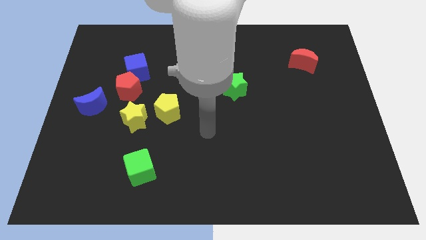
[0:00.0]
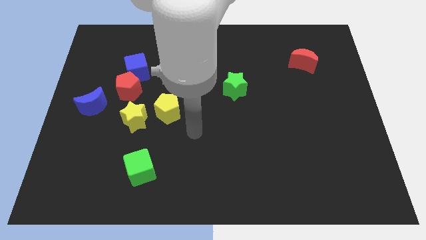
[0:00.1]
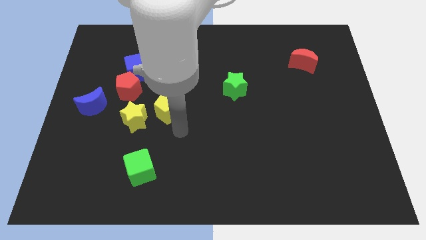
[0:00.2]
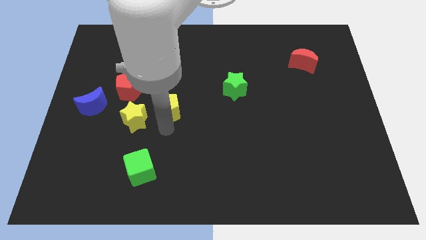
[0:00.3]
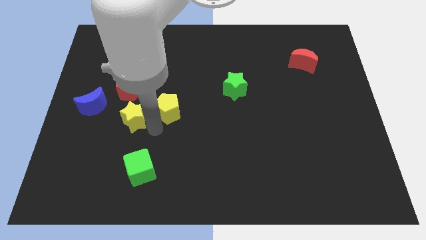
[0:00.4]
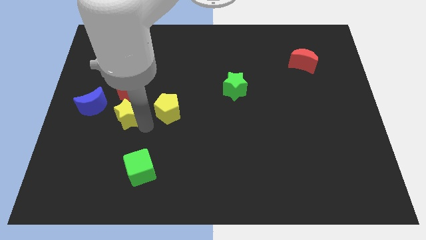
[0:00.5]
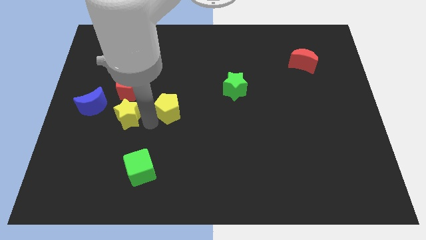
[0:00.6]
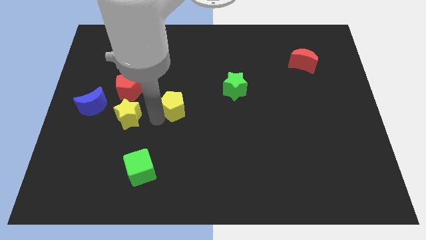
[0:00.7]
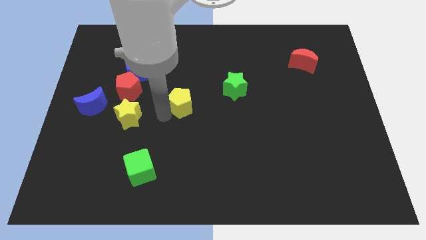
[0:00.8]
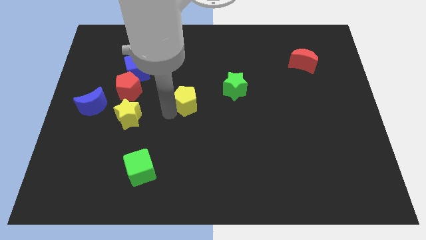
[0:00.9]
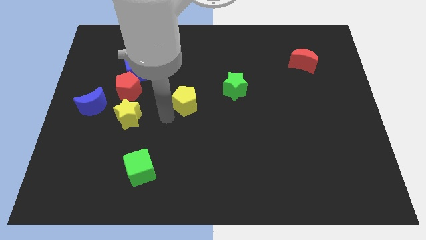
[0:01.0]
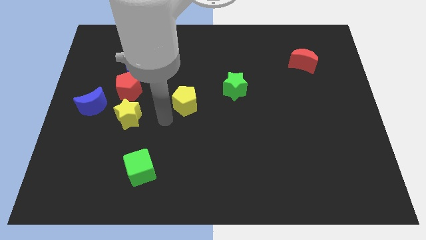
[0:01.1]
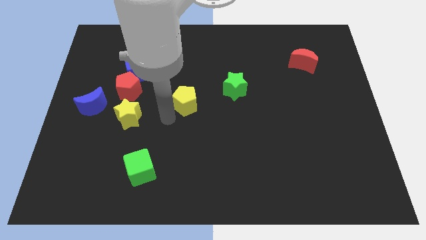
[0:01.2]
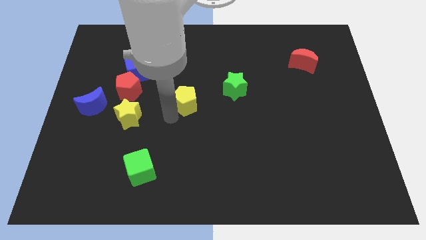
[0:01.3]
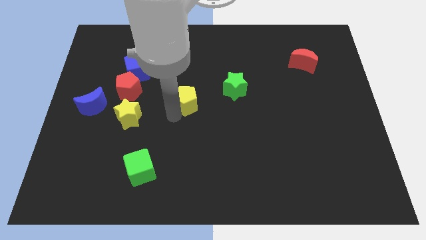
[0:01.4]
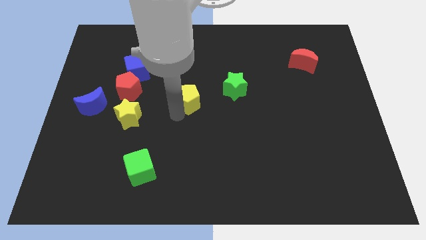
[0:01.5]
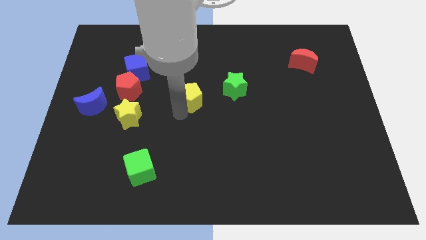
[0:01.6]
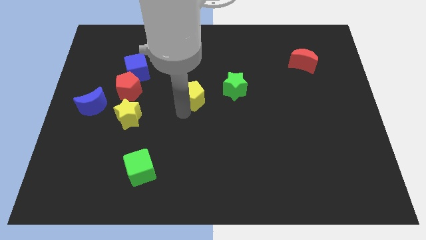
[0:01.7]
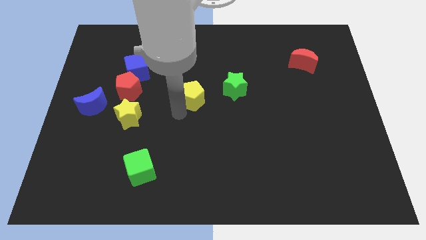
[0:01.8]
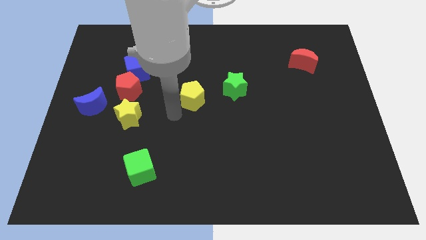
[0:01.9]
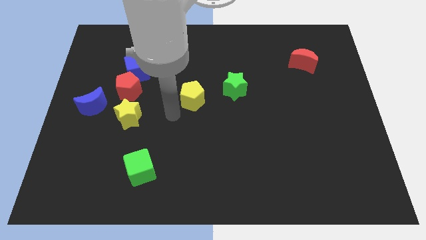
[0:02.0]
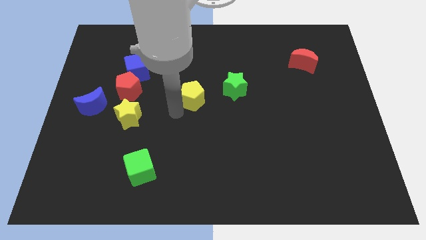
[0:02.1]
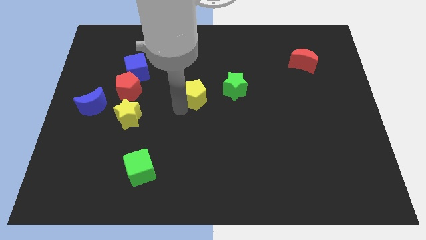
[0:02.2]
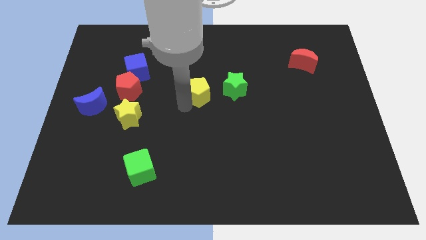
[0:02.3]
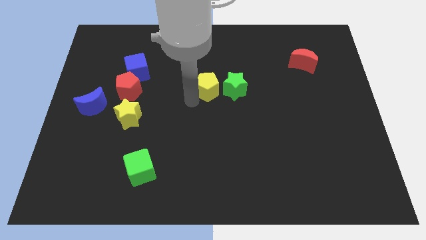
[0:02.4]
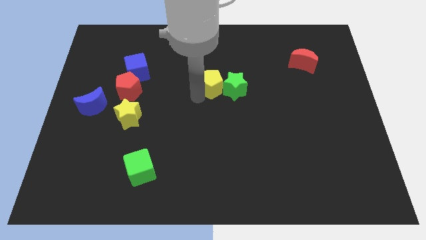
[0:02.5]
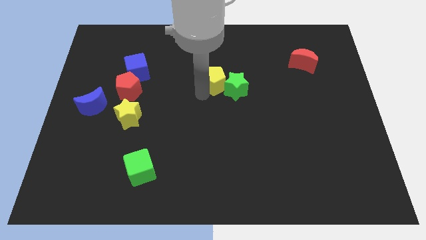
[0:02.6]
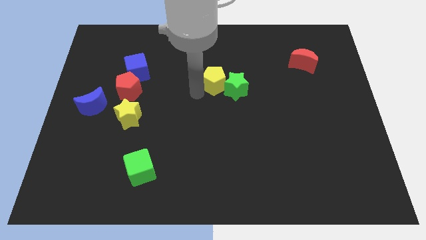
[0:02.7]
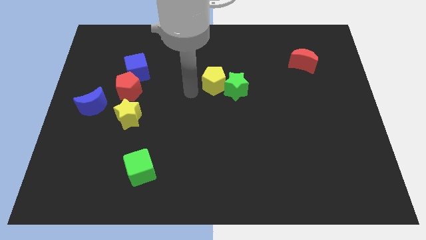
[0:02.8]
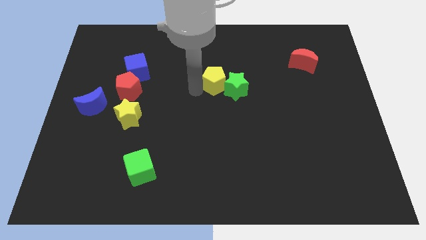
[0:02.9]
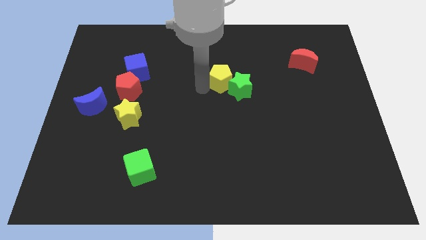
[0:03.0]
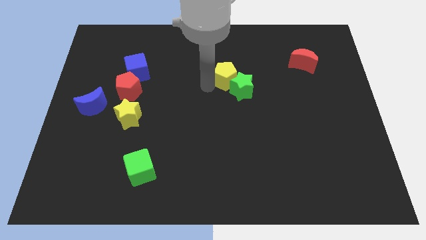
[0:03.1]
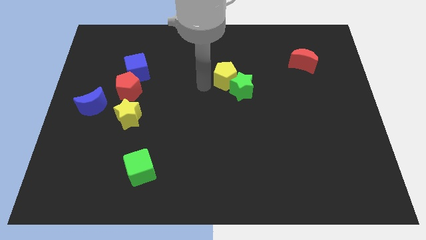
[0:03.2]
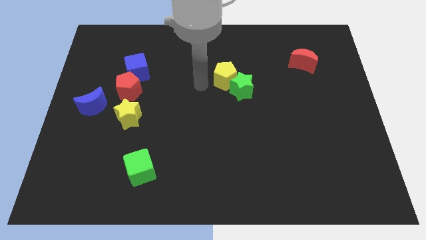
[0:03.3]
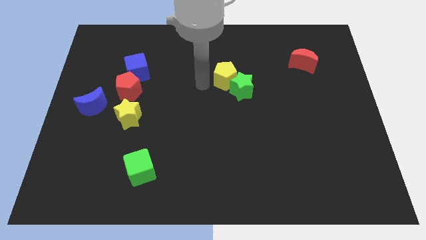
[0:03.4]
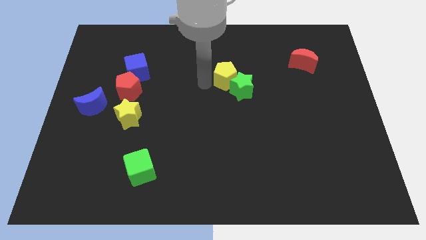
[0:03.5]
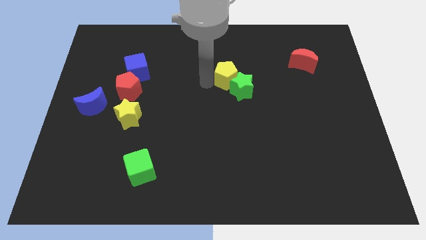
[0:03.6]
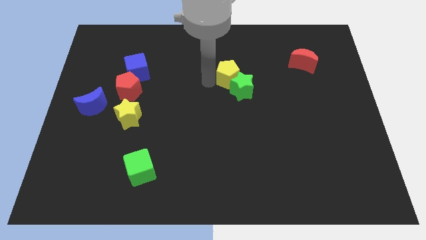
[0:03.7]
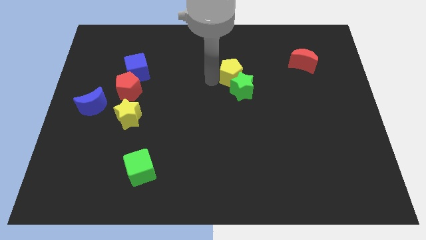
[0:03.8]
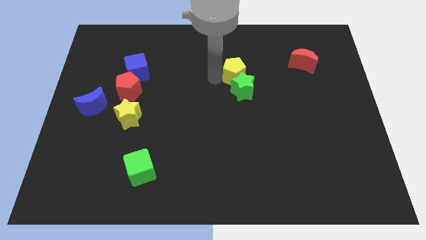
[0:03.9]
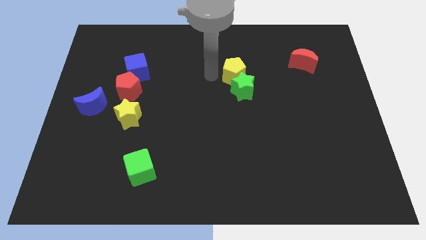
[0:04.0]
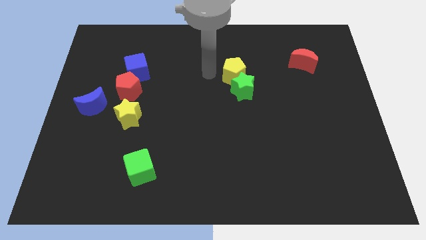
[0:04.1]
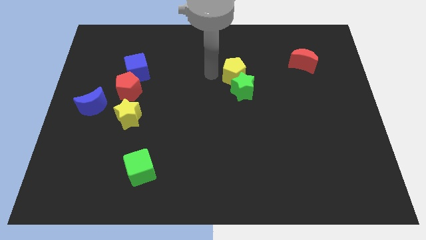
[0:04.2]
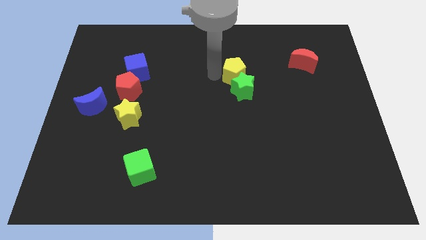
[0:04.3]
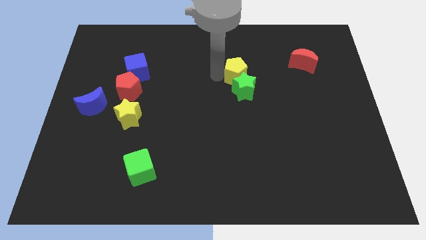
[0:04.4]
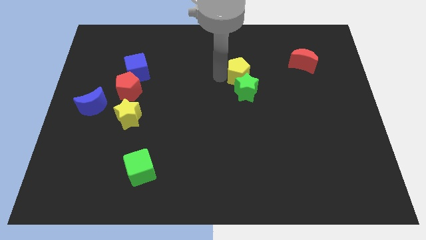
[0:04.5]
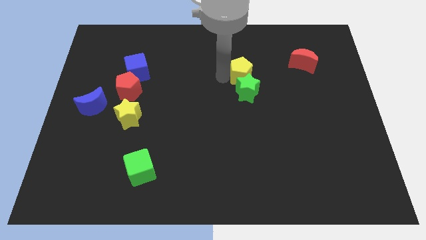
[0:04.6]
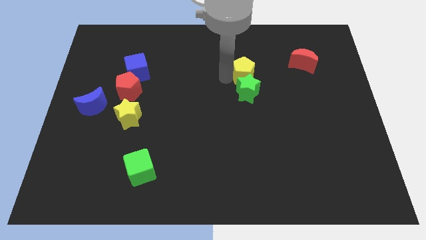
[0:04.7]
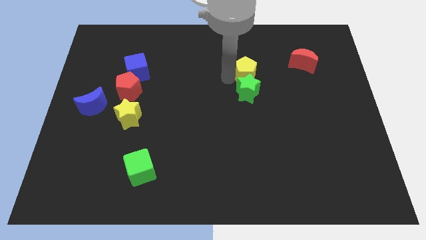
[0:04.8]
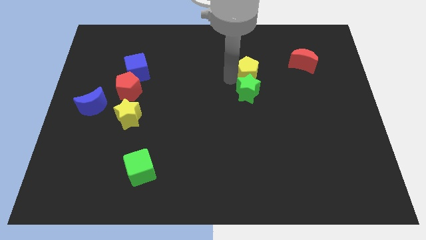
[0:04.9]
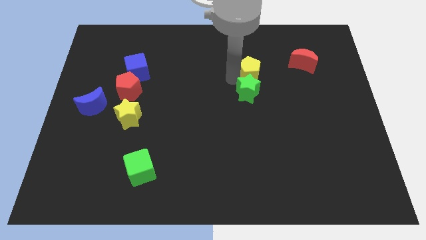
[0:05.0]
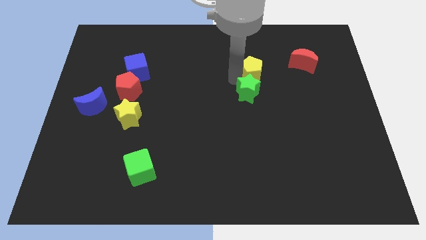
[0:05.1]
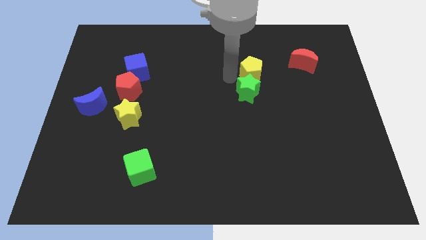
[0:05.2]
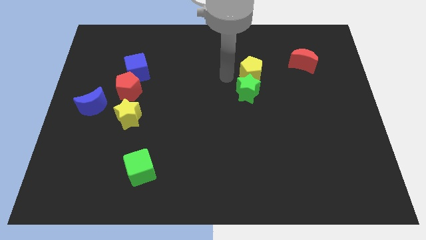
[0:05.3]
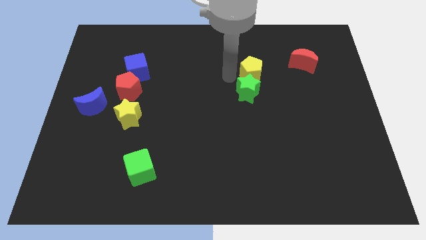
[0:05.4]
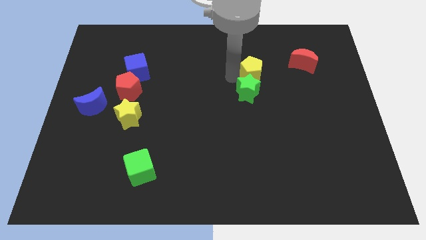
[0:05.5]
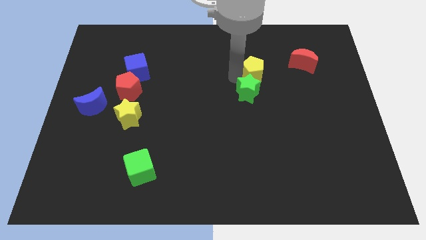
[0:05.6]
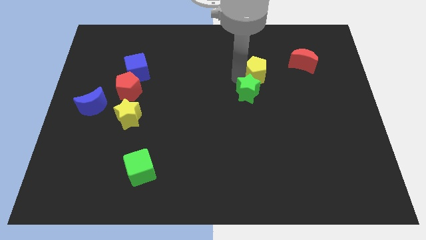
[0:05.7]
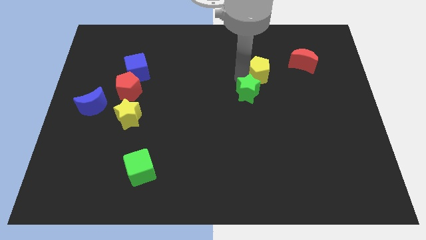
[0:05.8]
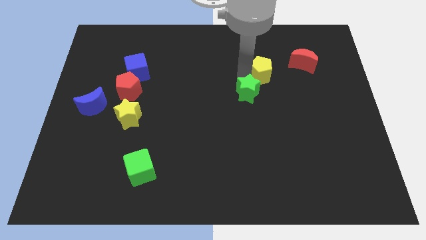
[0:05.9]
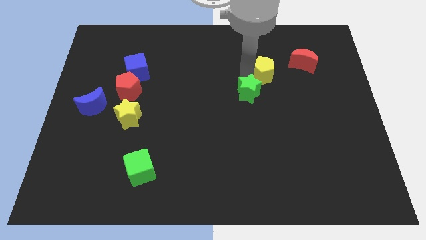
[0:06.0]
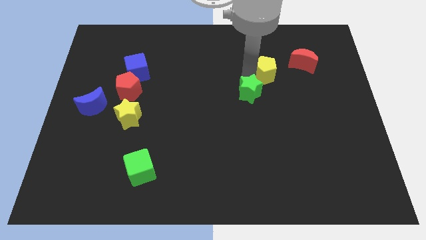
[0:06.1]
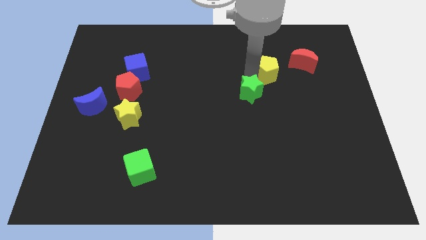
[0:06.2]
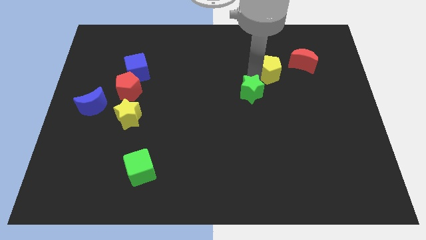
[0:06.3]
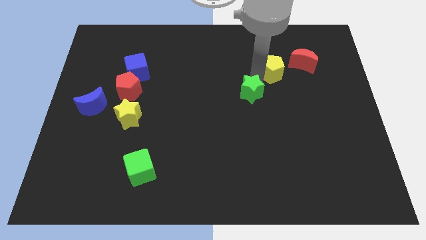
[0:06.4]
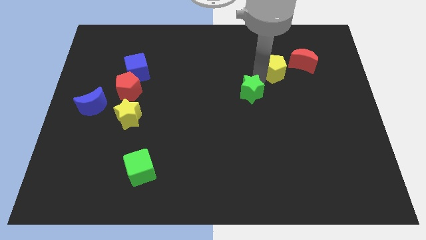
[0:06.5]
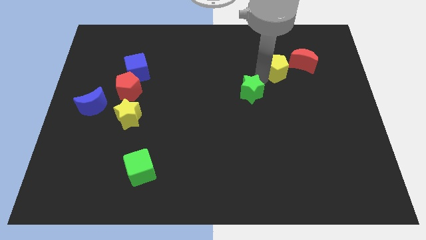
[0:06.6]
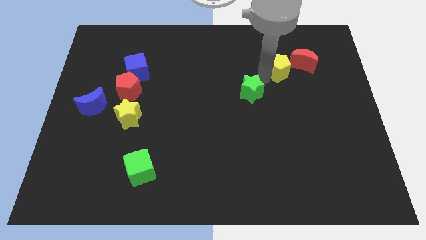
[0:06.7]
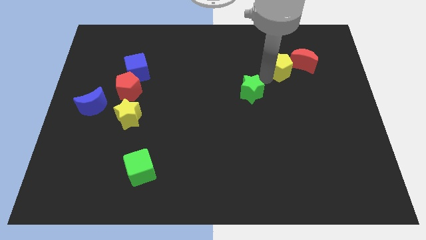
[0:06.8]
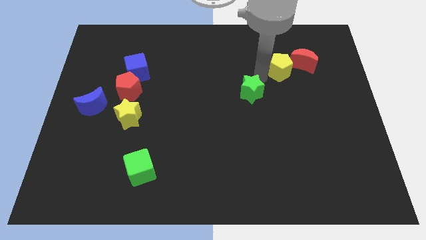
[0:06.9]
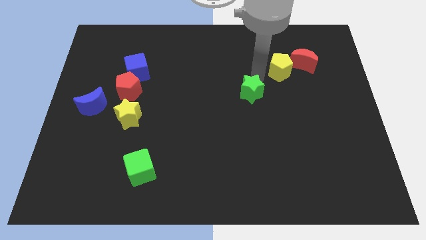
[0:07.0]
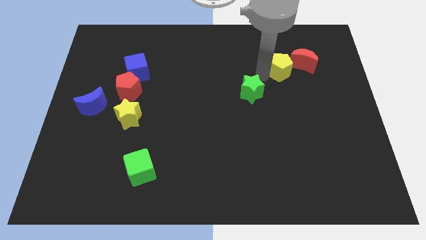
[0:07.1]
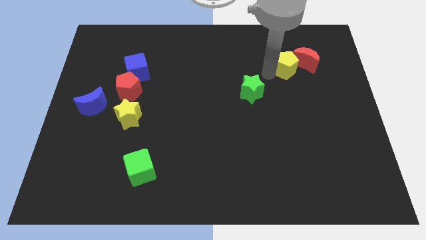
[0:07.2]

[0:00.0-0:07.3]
put the yellow pentagon close to the red moon
